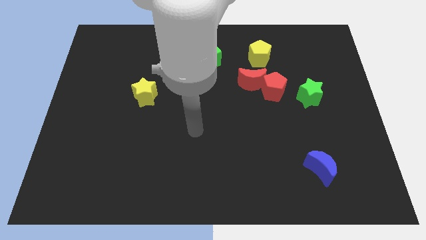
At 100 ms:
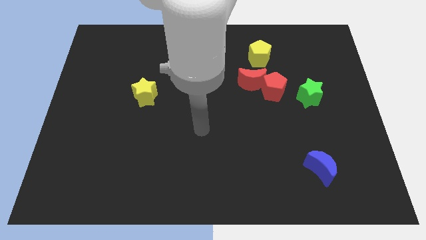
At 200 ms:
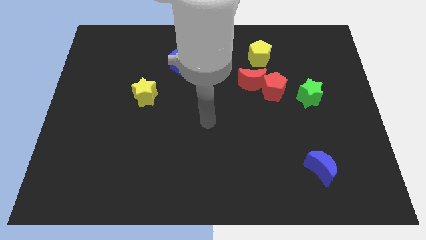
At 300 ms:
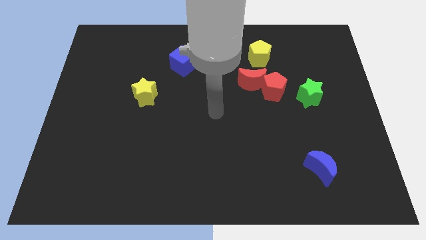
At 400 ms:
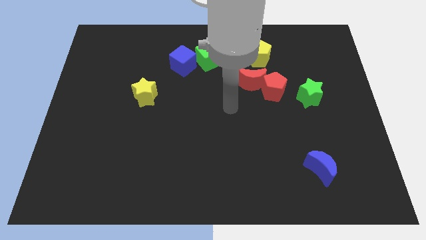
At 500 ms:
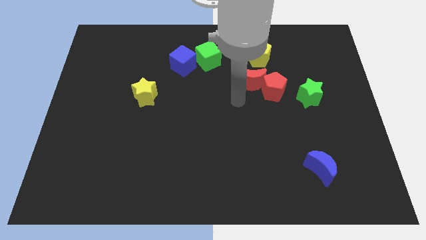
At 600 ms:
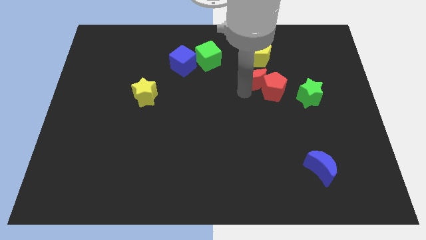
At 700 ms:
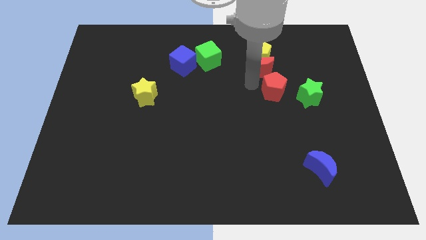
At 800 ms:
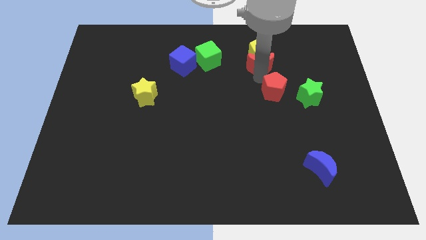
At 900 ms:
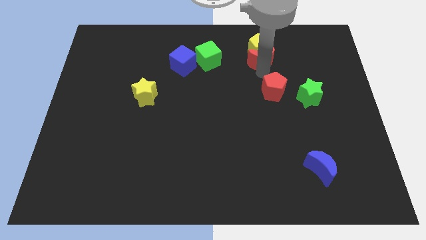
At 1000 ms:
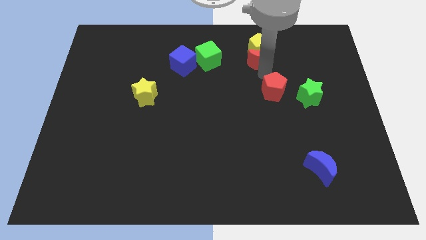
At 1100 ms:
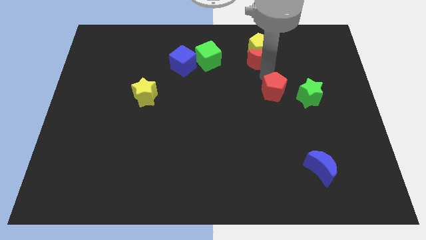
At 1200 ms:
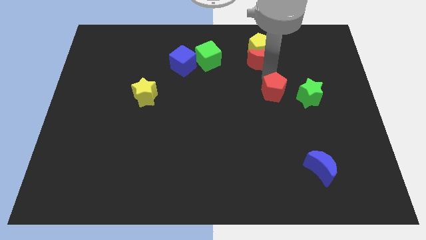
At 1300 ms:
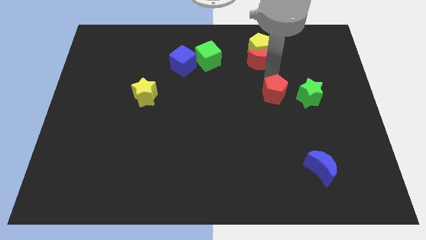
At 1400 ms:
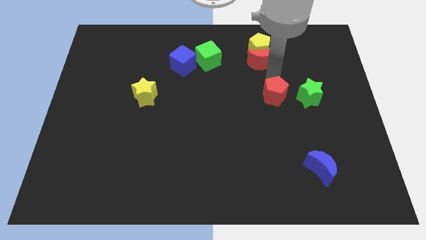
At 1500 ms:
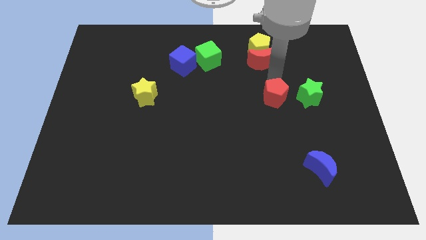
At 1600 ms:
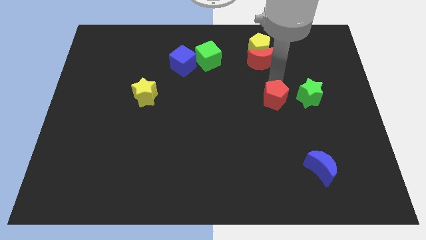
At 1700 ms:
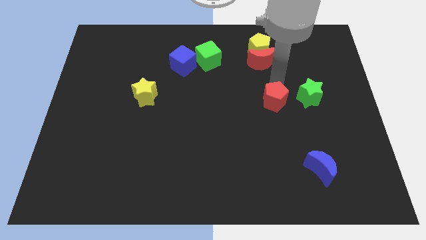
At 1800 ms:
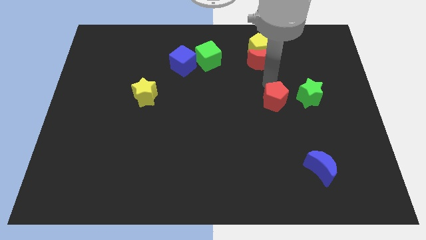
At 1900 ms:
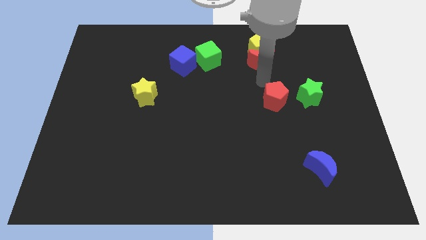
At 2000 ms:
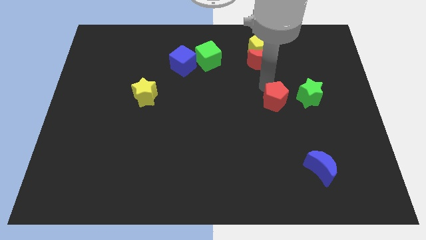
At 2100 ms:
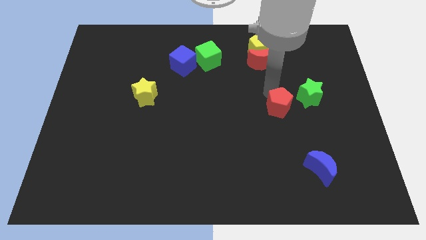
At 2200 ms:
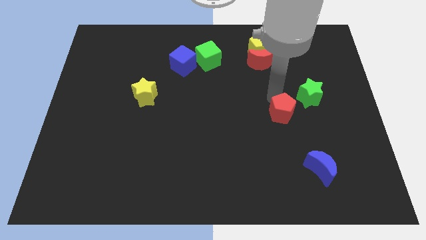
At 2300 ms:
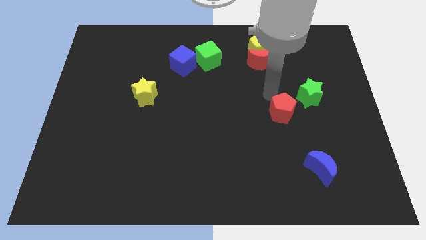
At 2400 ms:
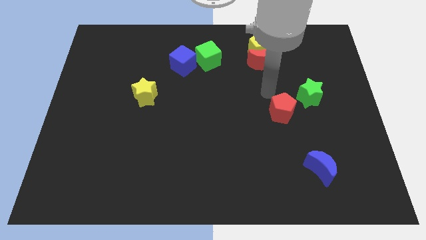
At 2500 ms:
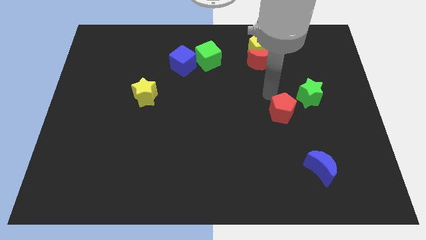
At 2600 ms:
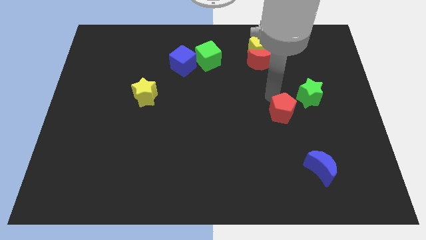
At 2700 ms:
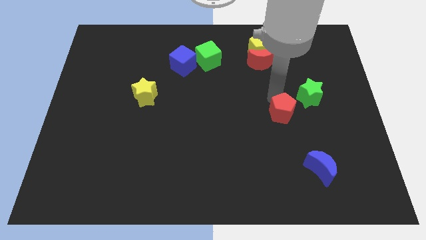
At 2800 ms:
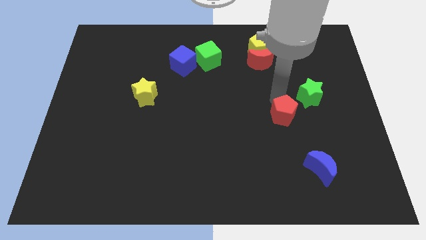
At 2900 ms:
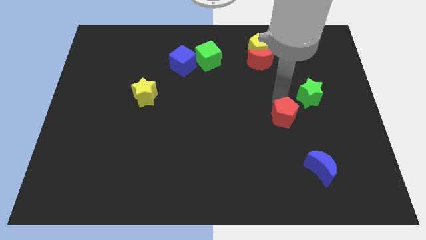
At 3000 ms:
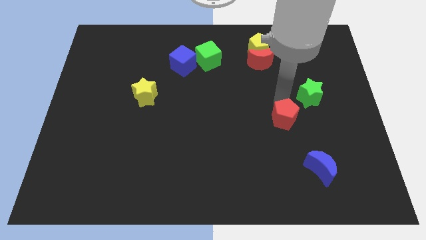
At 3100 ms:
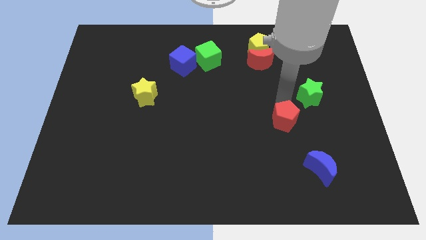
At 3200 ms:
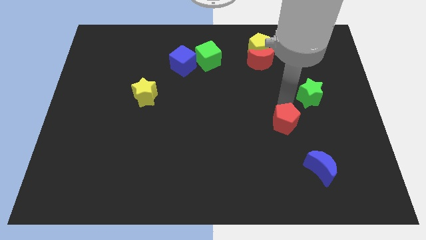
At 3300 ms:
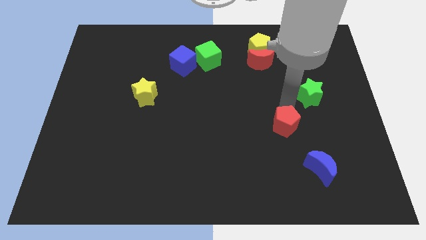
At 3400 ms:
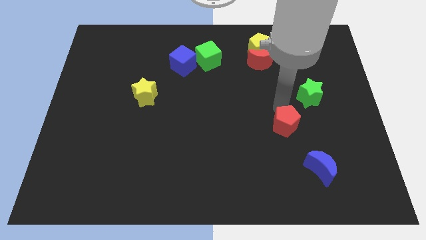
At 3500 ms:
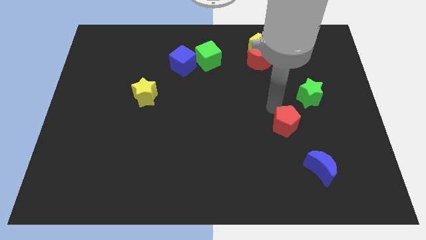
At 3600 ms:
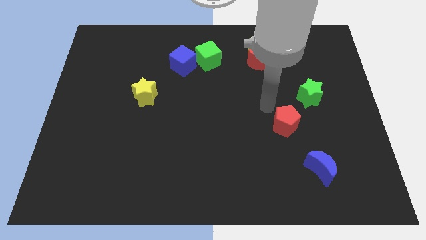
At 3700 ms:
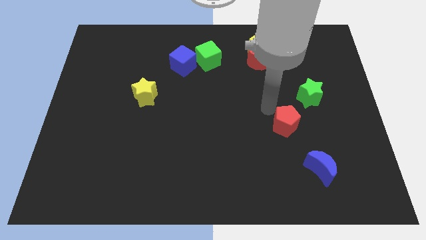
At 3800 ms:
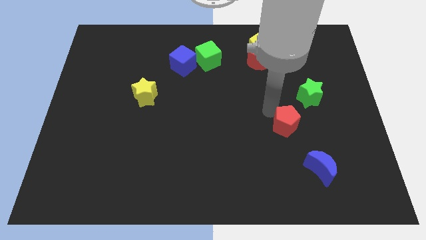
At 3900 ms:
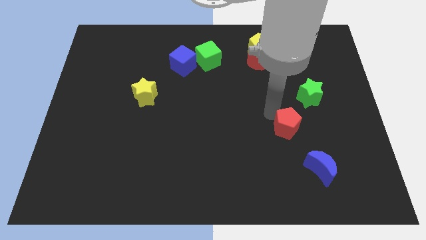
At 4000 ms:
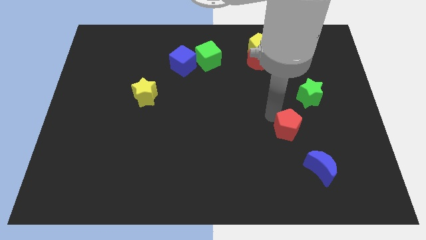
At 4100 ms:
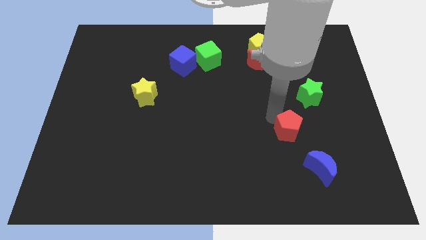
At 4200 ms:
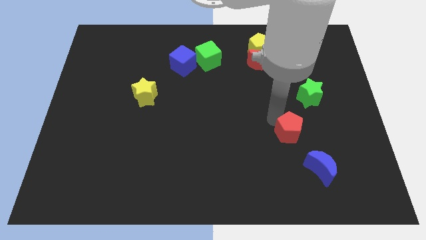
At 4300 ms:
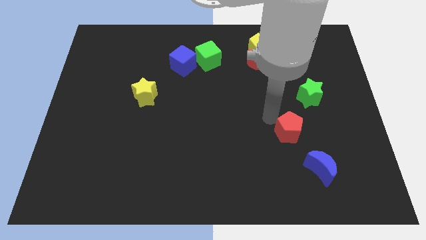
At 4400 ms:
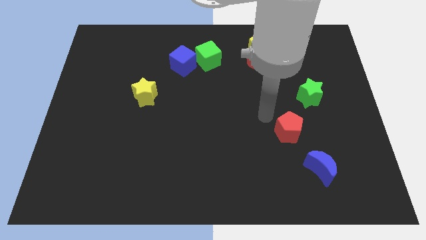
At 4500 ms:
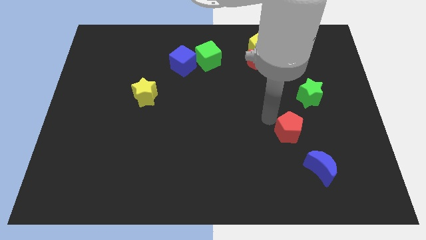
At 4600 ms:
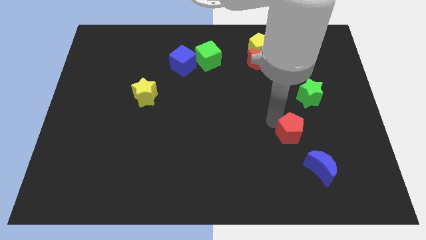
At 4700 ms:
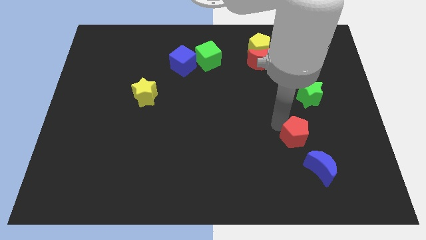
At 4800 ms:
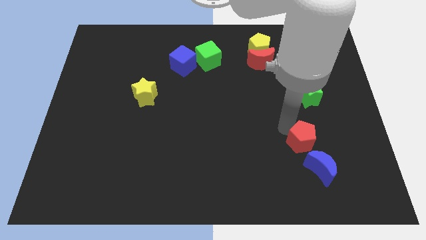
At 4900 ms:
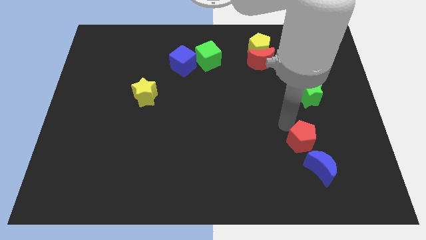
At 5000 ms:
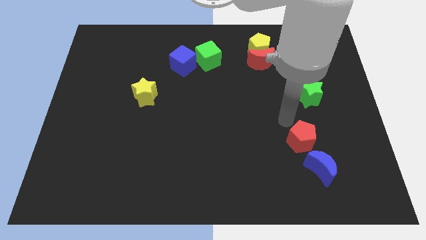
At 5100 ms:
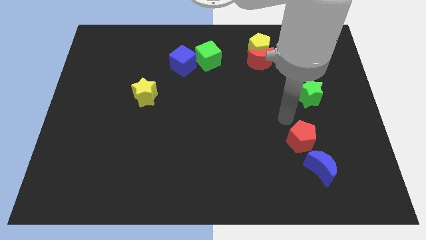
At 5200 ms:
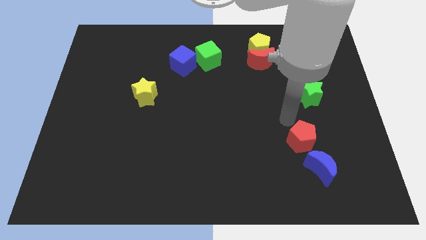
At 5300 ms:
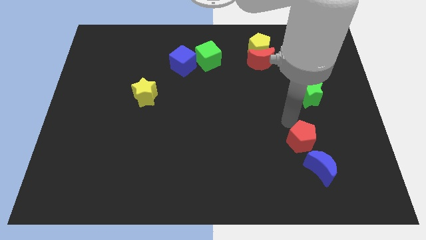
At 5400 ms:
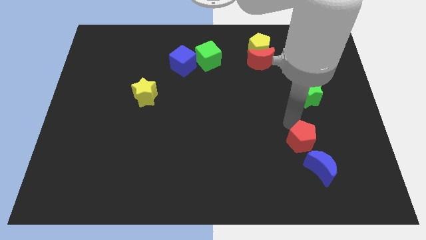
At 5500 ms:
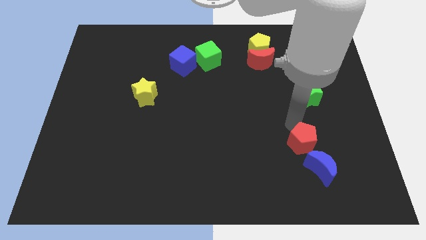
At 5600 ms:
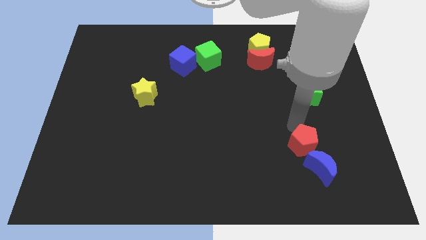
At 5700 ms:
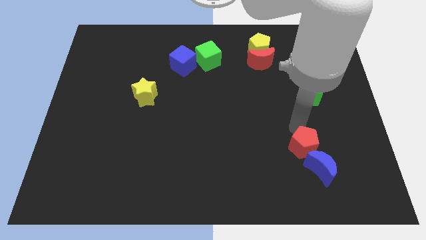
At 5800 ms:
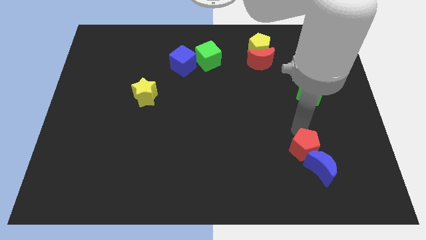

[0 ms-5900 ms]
push the red pentagon next to the blue moon

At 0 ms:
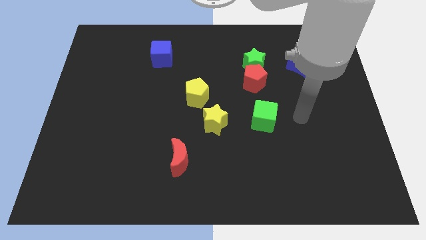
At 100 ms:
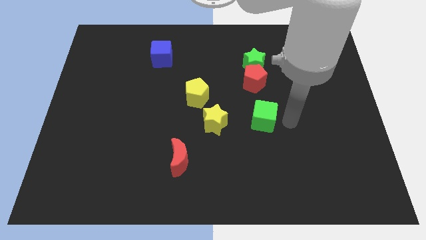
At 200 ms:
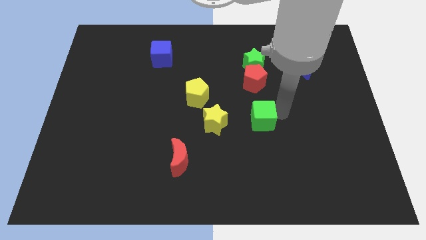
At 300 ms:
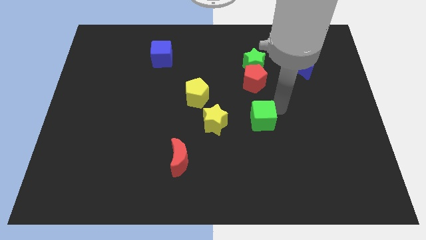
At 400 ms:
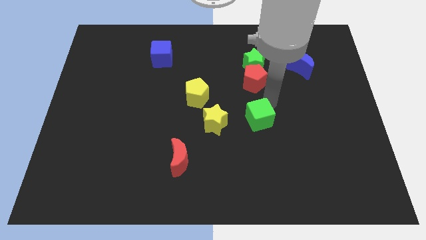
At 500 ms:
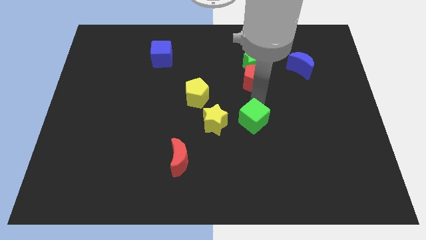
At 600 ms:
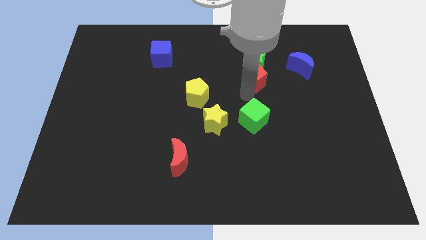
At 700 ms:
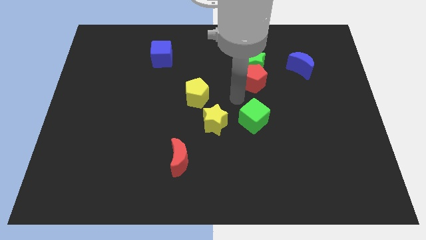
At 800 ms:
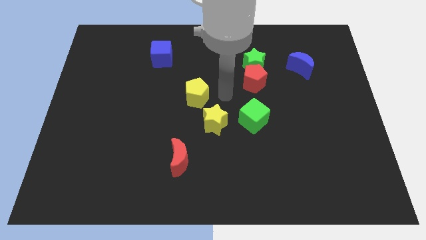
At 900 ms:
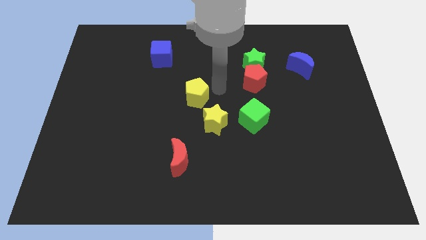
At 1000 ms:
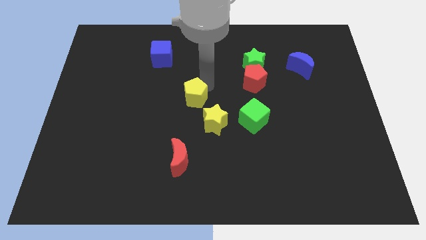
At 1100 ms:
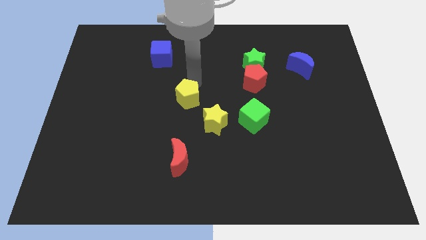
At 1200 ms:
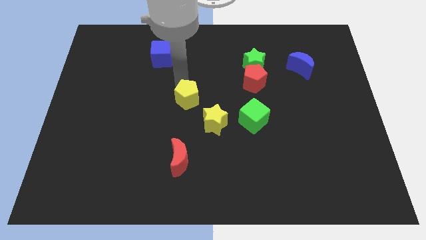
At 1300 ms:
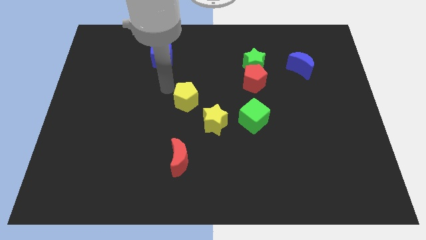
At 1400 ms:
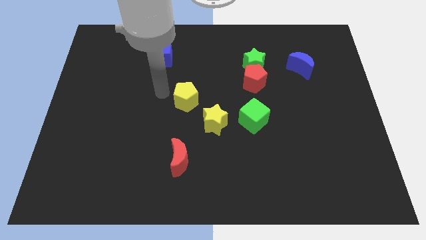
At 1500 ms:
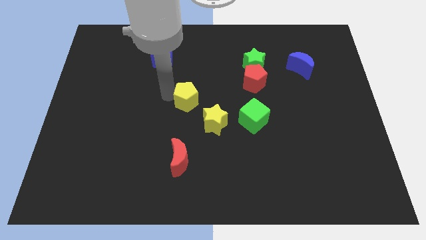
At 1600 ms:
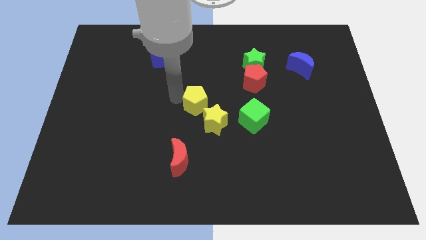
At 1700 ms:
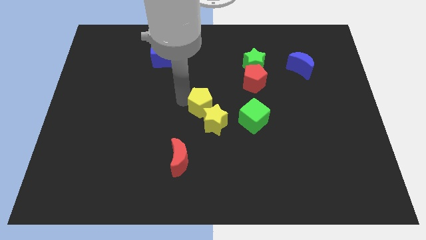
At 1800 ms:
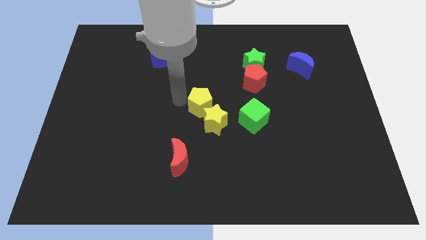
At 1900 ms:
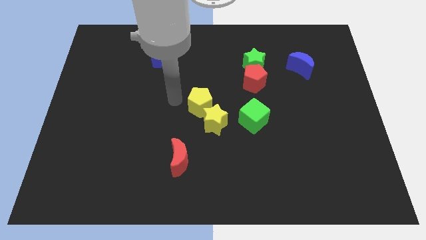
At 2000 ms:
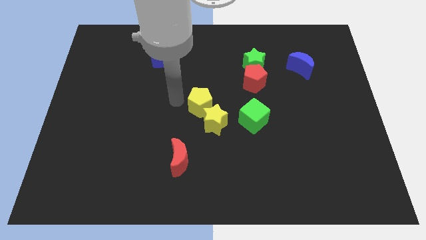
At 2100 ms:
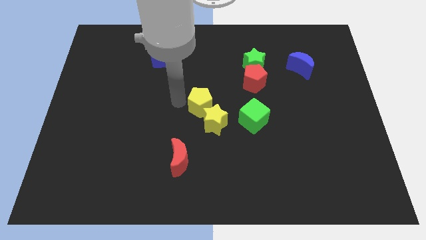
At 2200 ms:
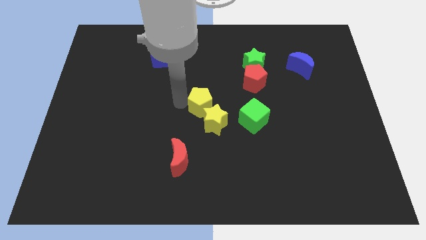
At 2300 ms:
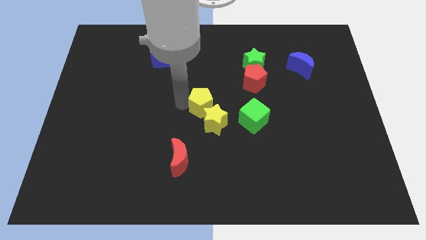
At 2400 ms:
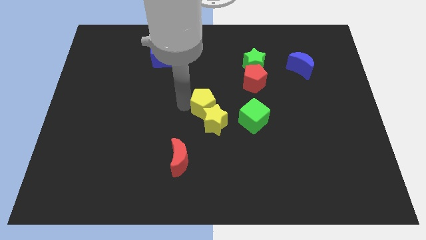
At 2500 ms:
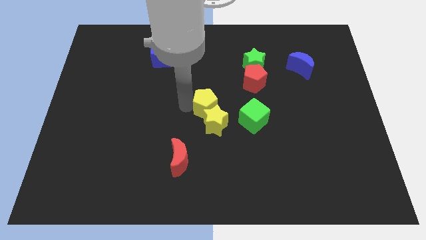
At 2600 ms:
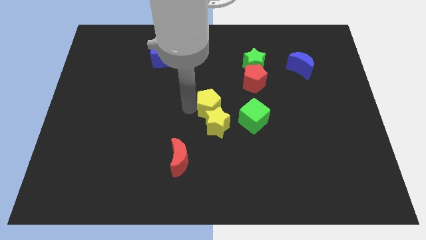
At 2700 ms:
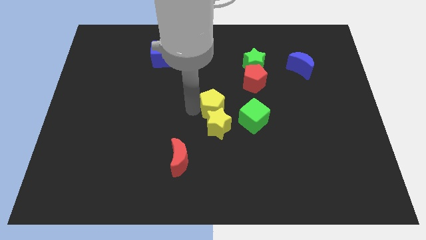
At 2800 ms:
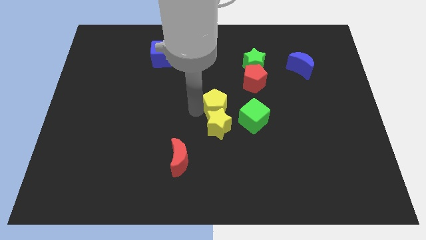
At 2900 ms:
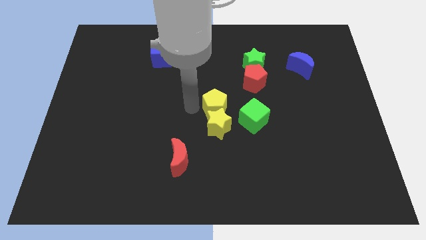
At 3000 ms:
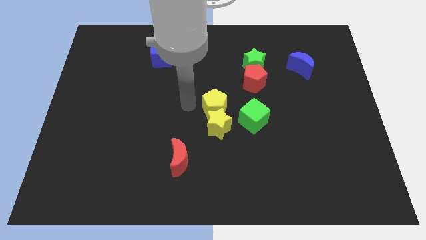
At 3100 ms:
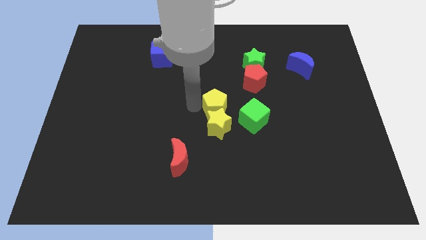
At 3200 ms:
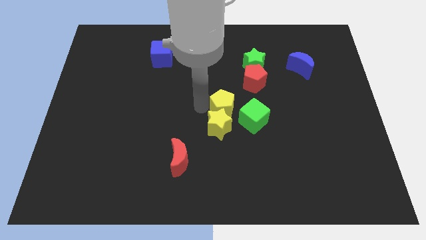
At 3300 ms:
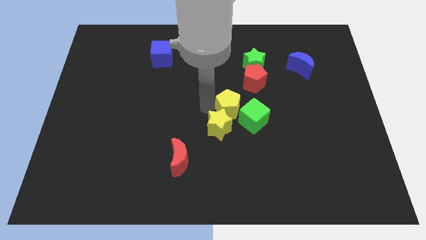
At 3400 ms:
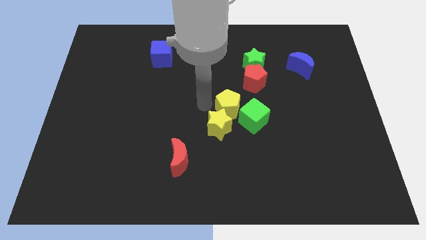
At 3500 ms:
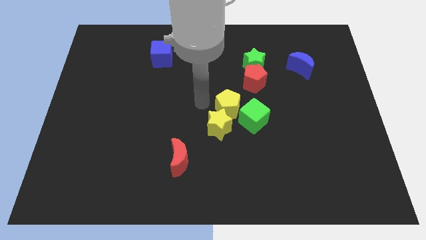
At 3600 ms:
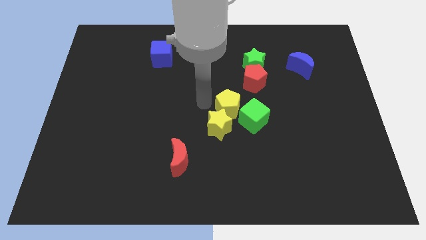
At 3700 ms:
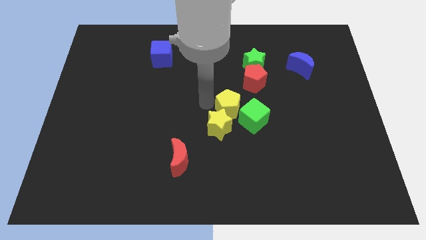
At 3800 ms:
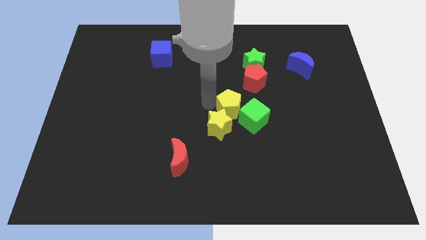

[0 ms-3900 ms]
move the yellow pentagon towards the green cube
